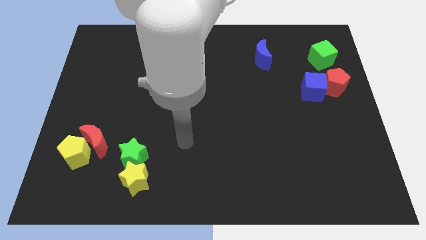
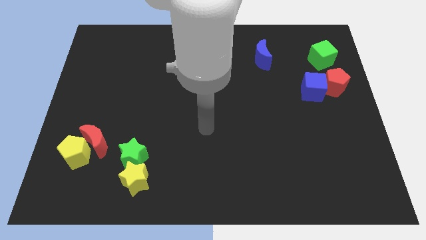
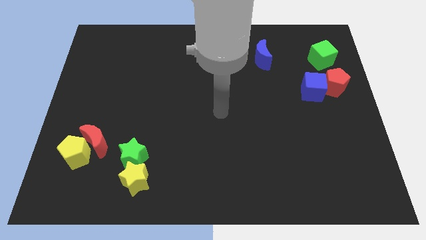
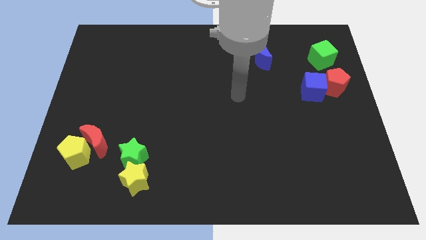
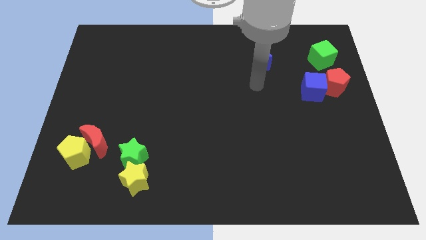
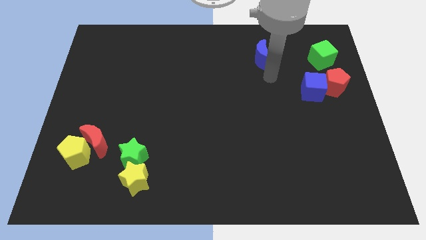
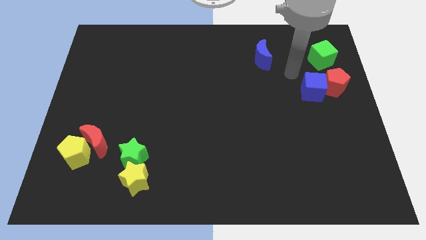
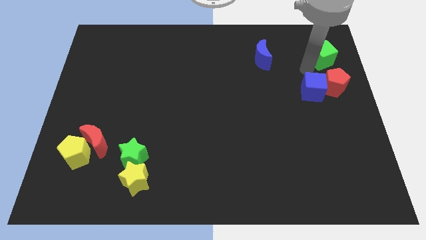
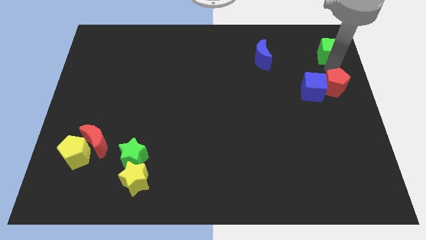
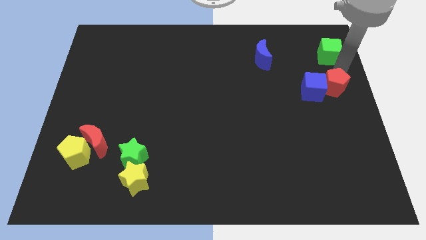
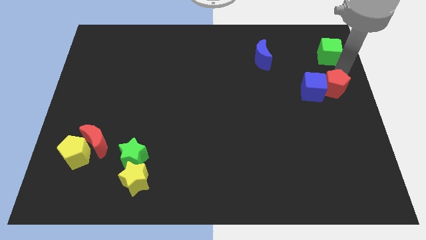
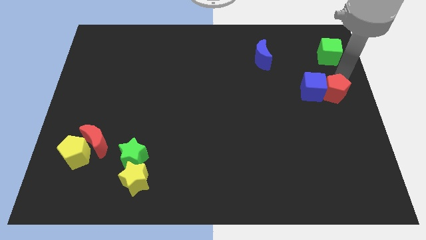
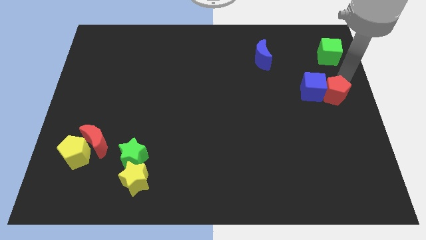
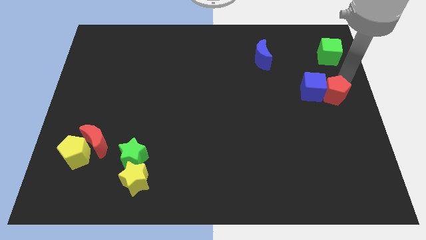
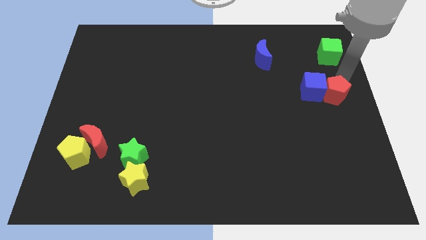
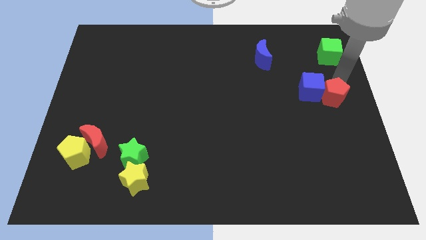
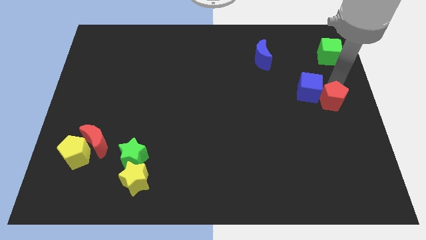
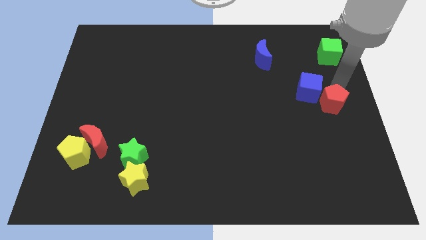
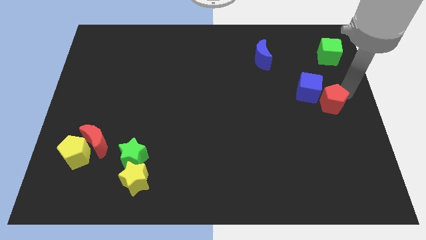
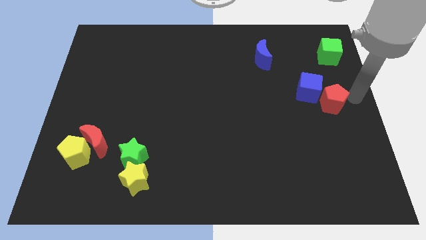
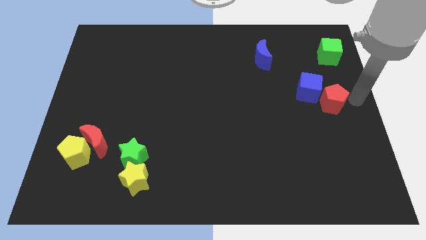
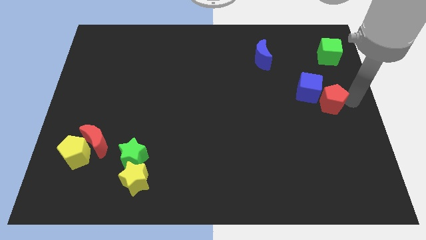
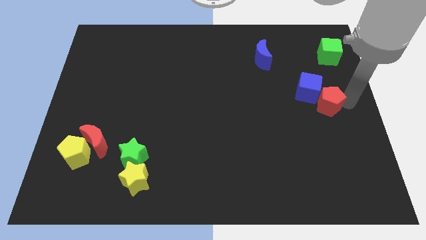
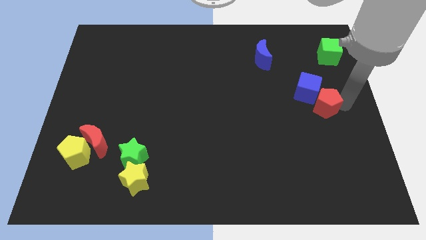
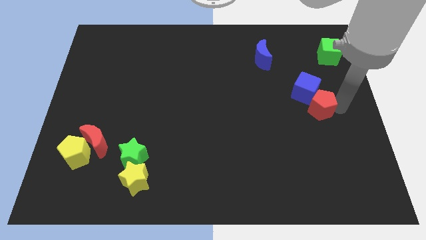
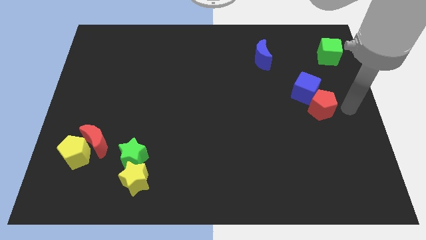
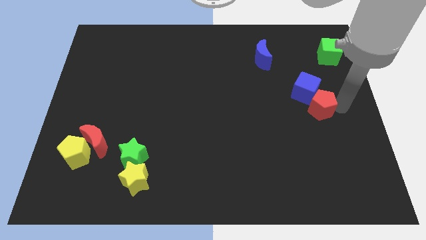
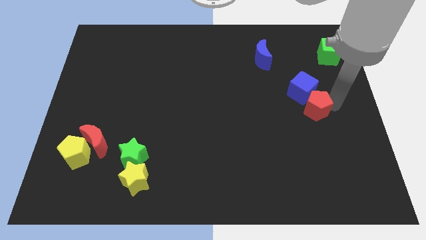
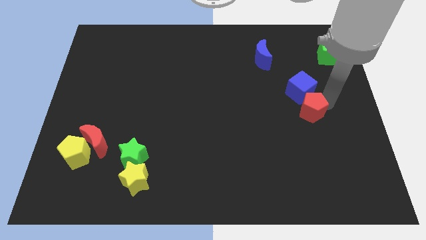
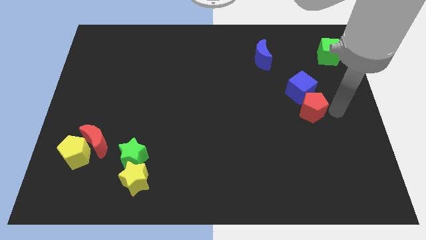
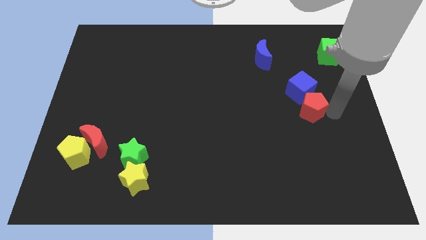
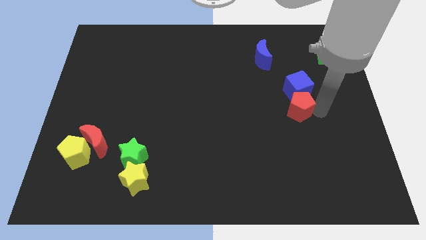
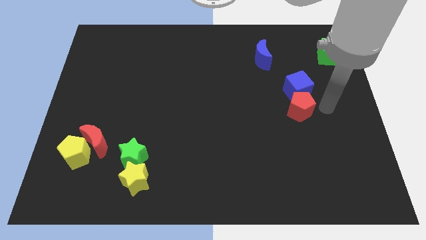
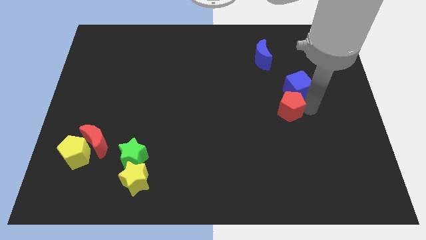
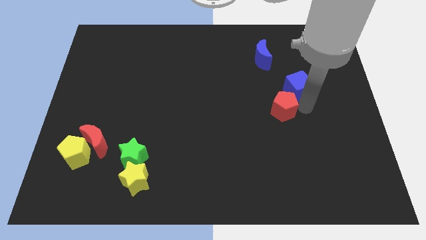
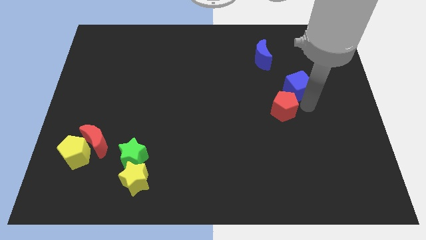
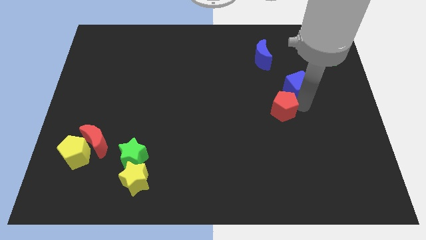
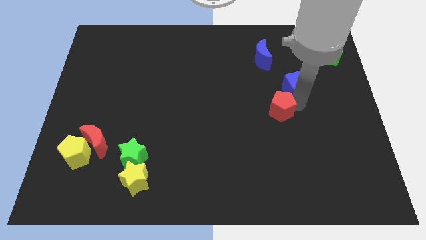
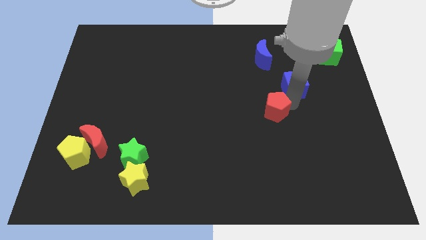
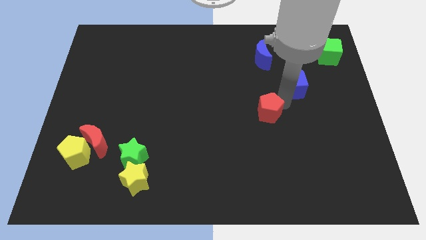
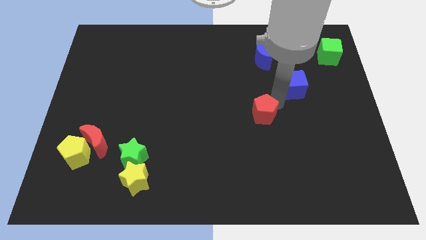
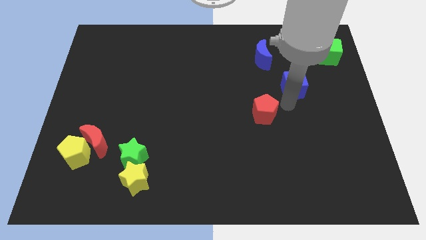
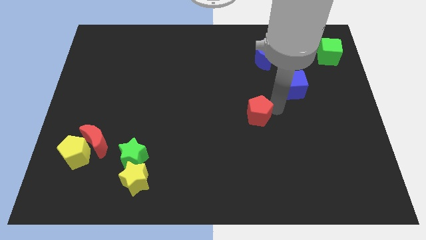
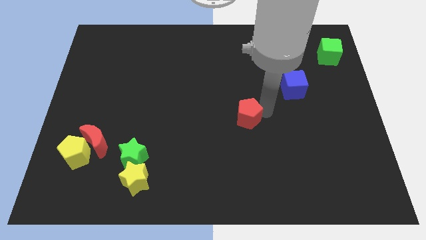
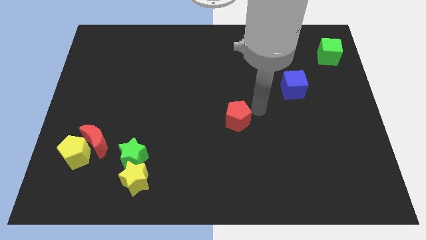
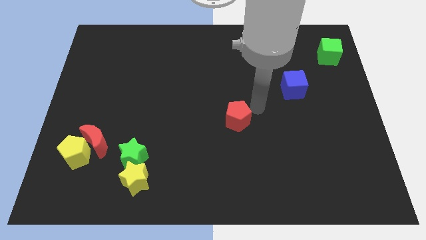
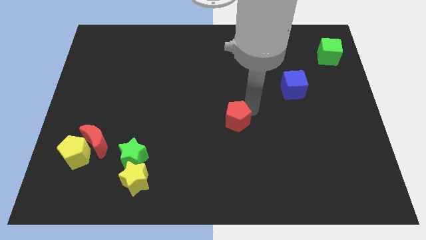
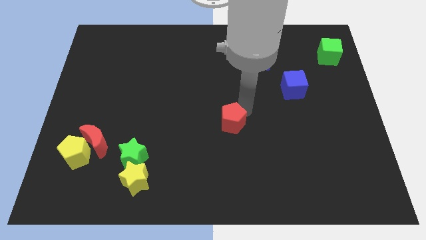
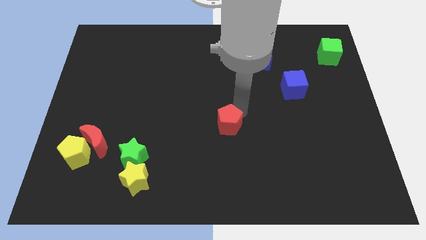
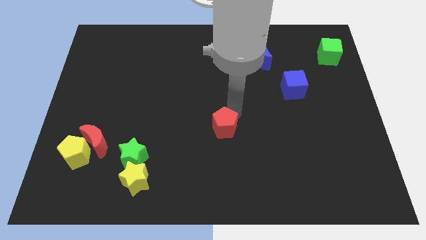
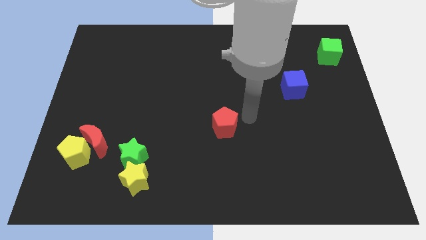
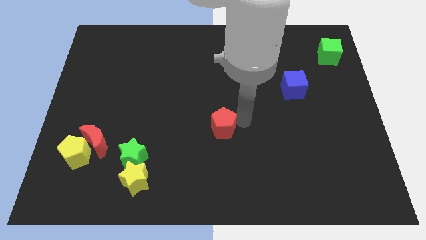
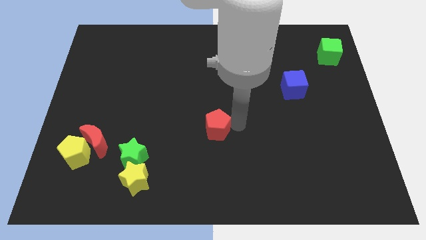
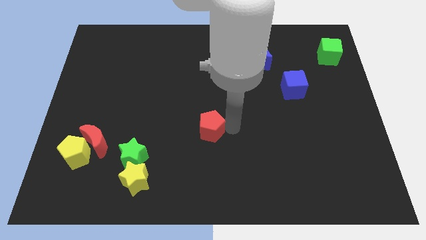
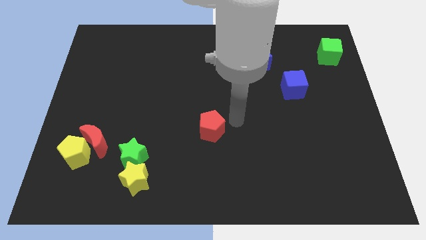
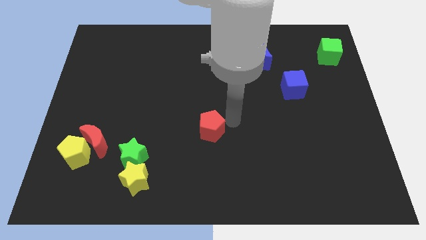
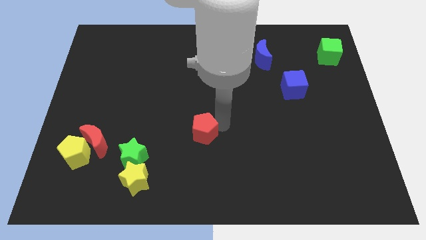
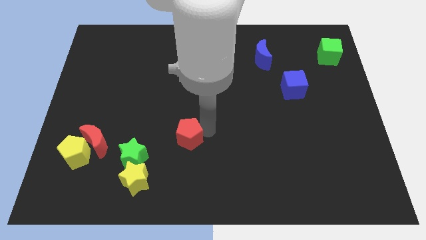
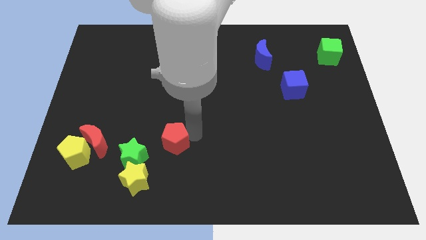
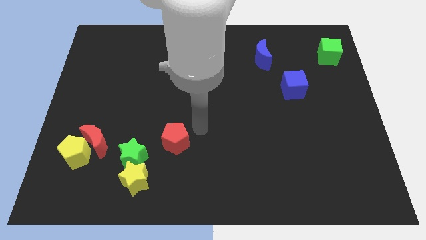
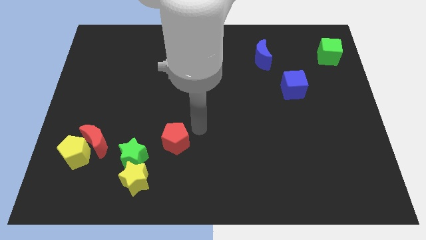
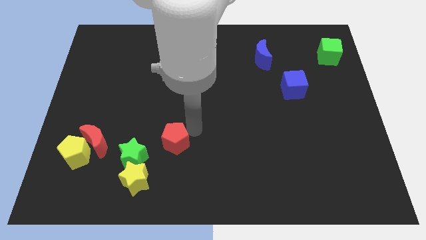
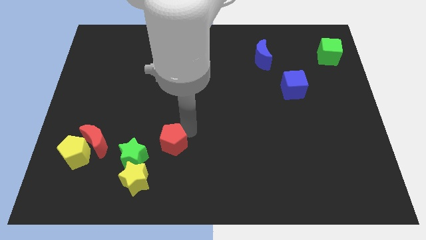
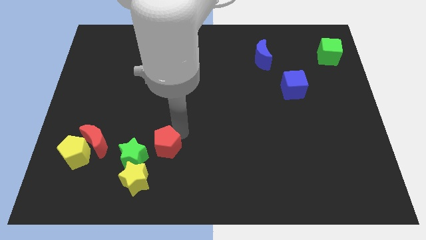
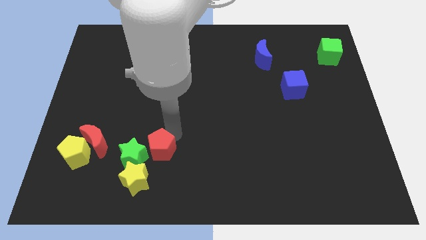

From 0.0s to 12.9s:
push the red pentagon to the green star

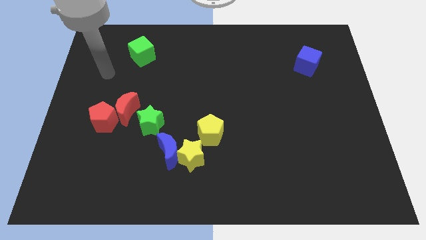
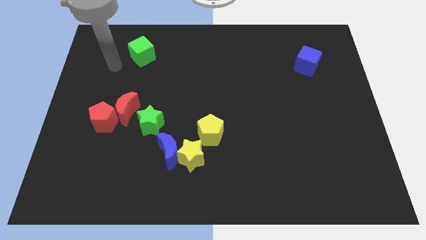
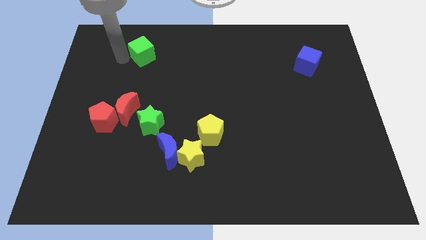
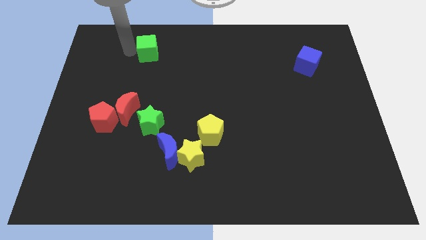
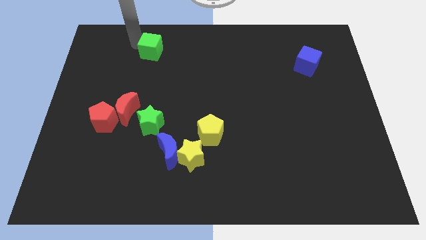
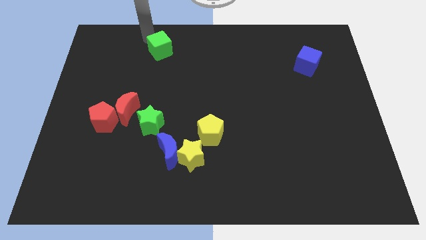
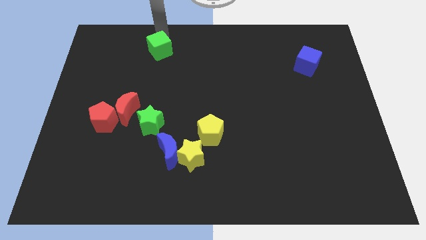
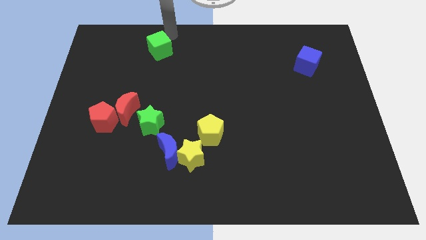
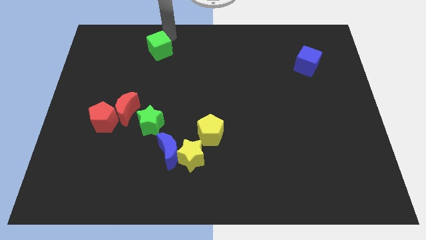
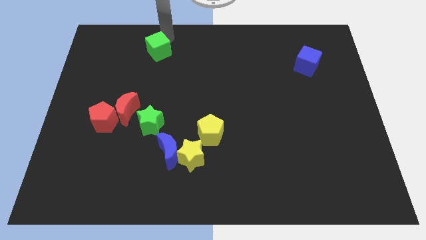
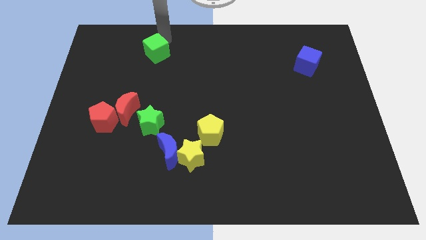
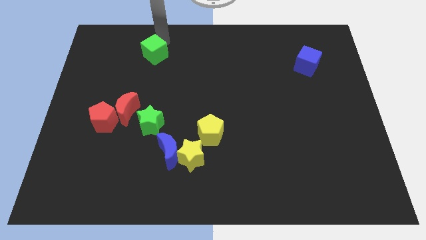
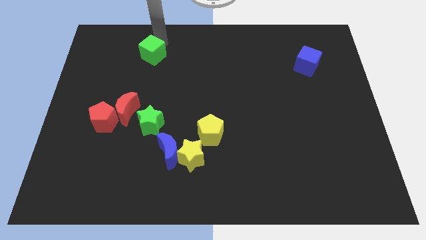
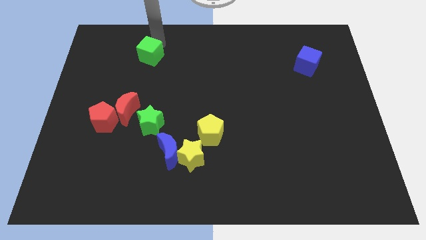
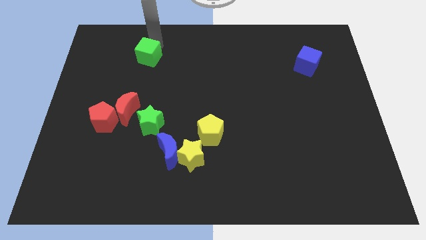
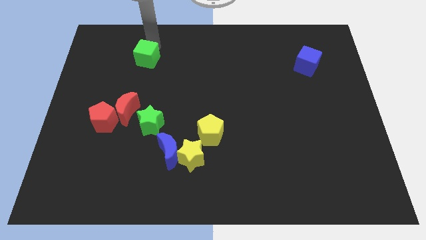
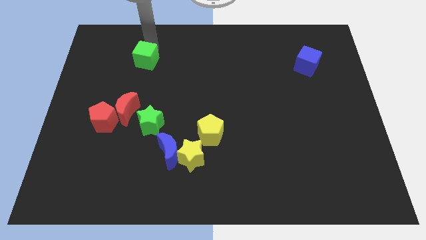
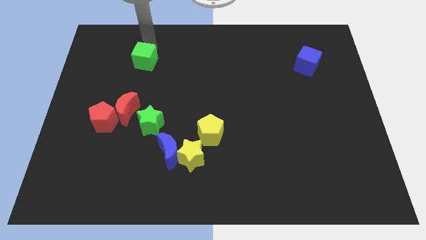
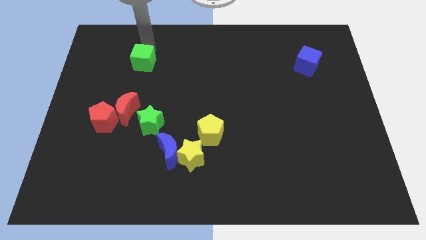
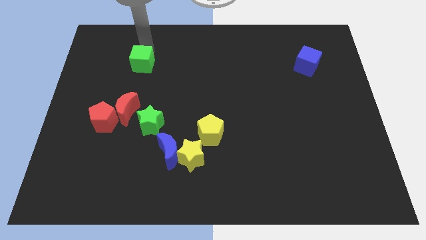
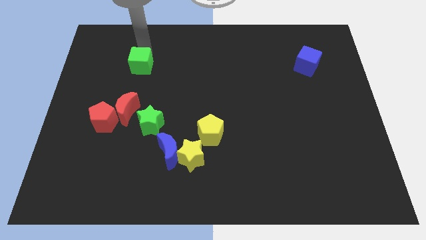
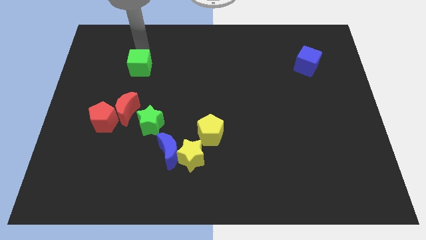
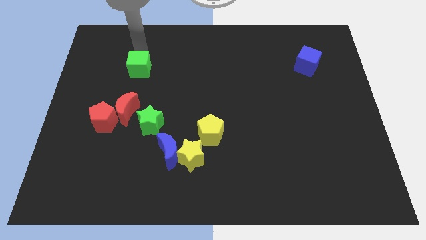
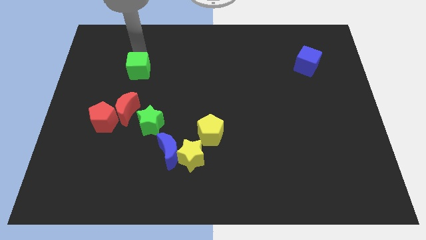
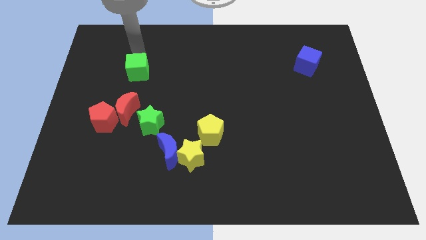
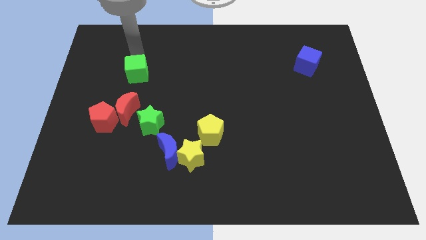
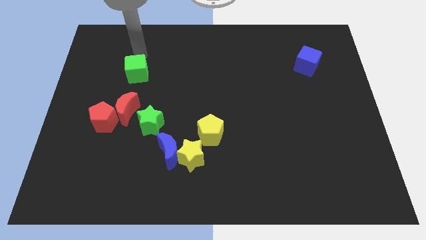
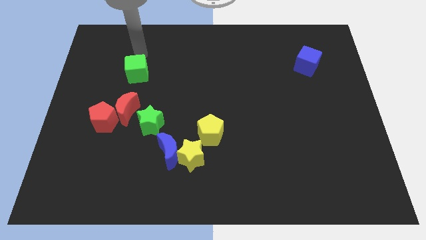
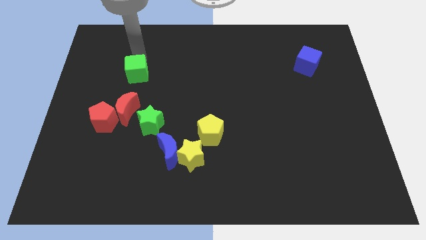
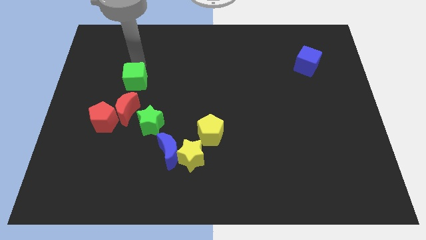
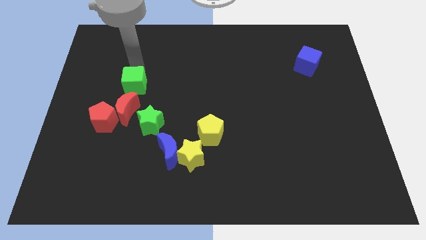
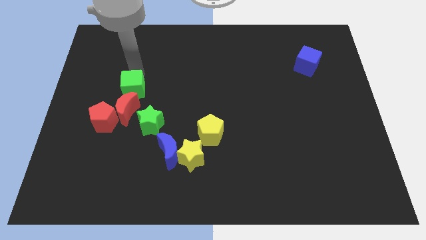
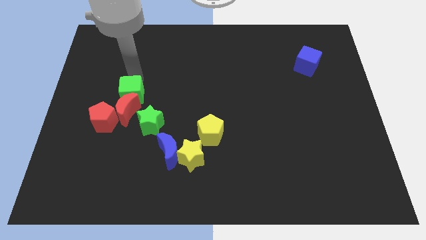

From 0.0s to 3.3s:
slide the green cube to the red moon
